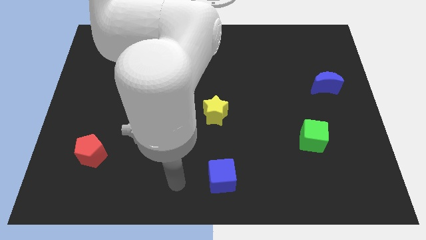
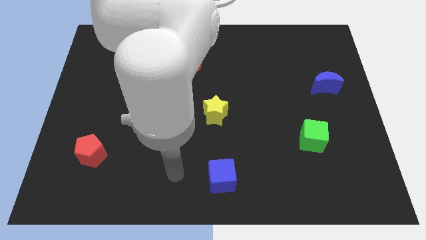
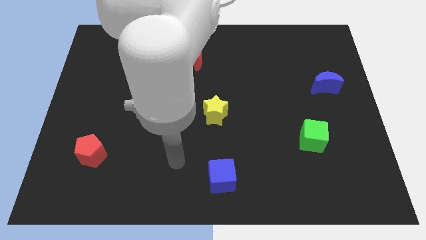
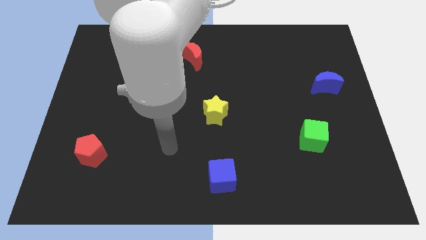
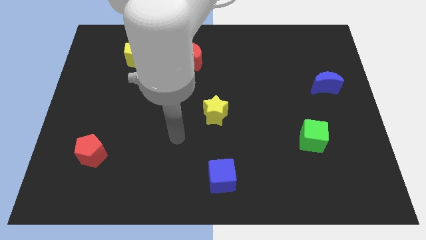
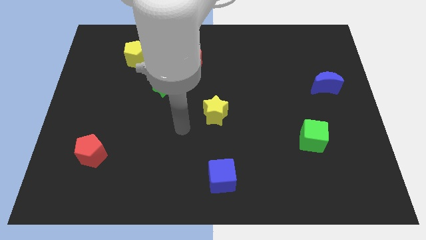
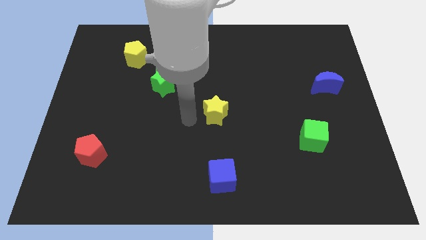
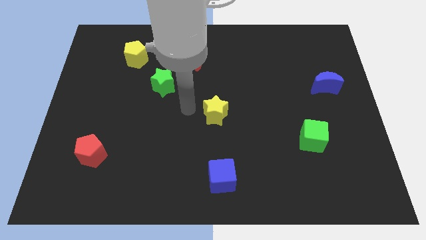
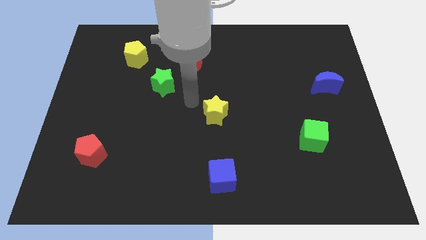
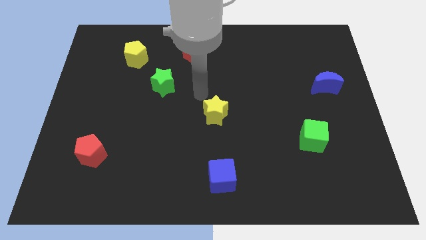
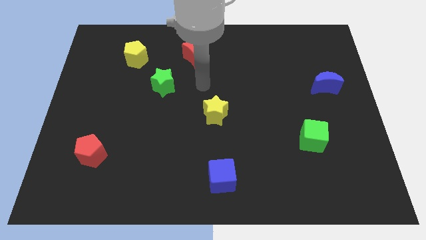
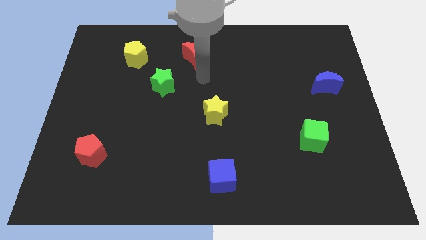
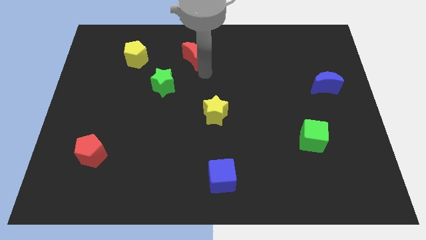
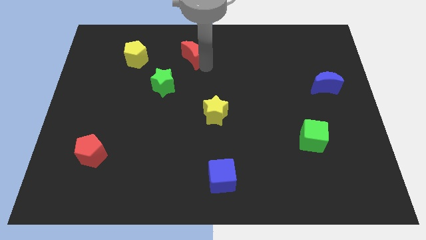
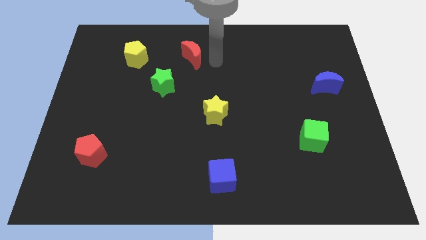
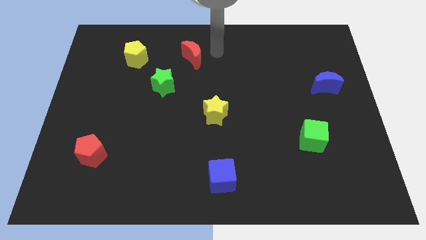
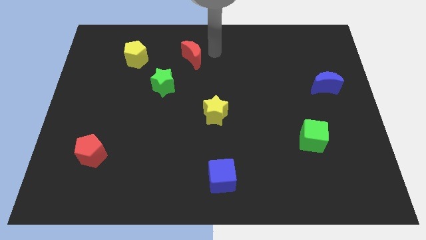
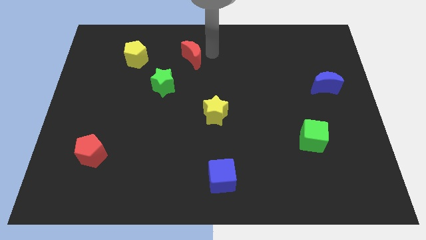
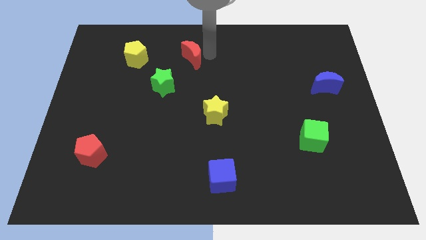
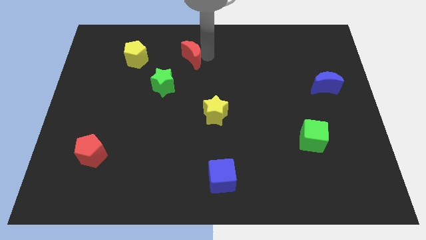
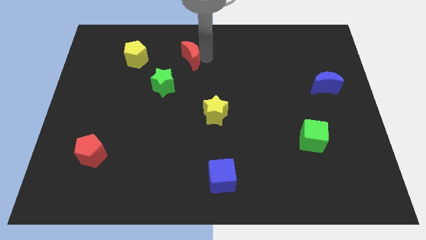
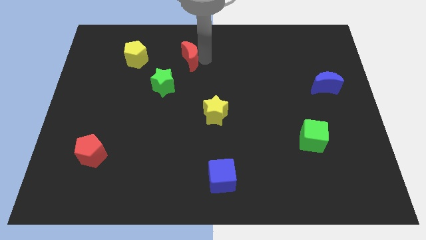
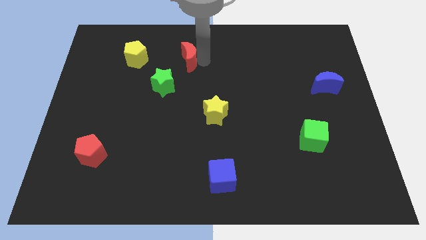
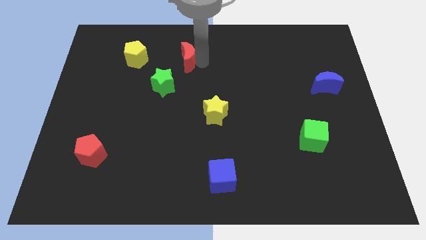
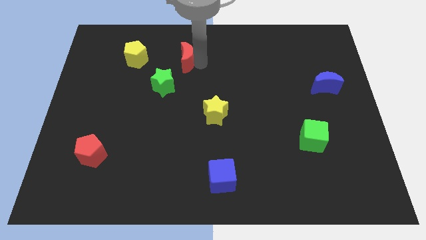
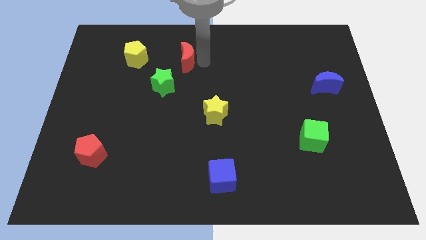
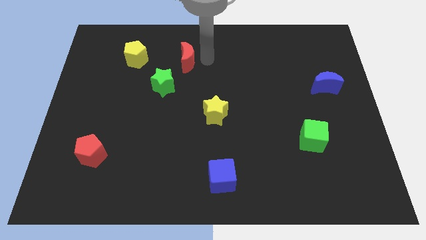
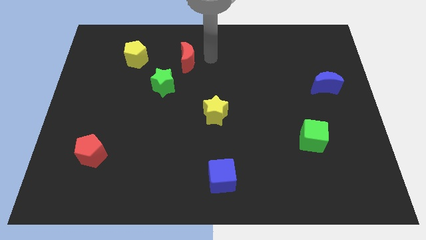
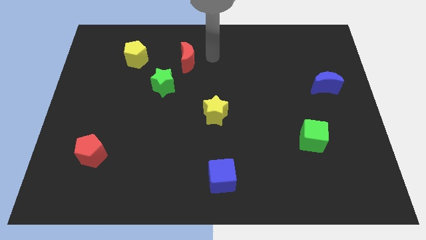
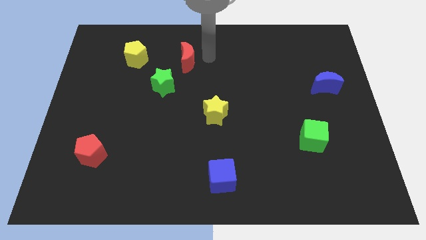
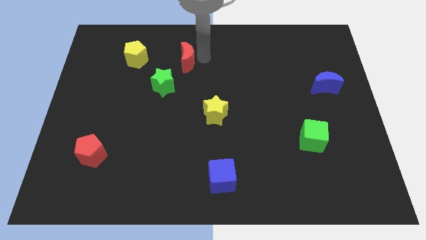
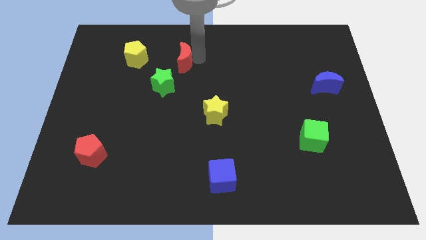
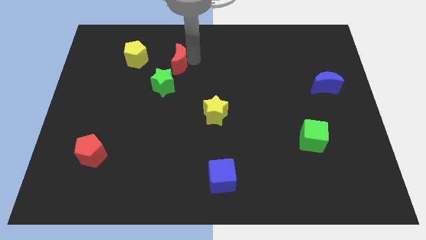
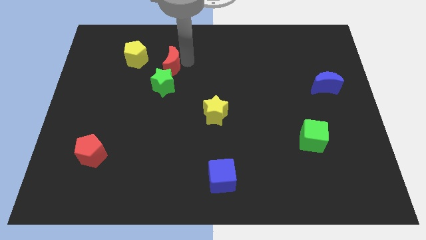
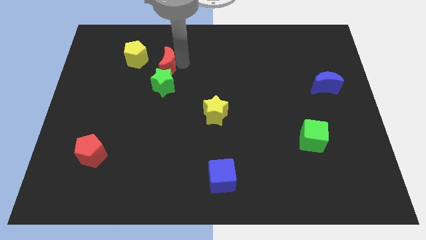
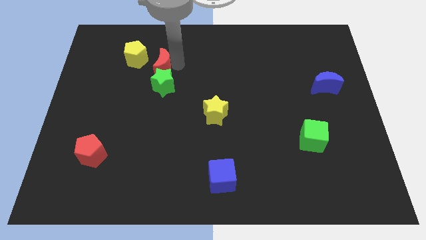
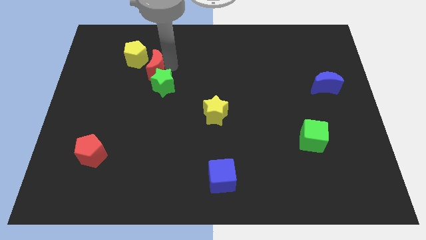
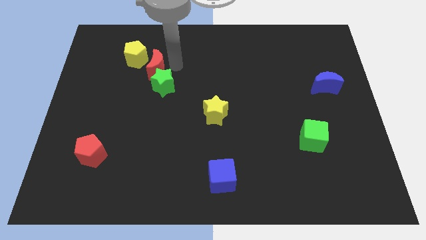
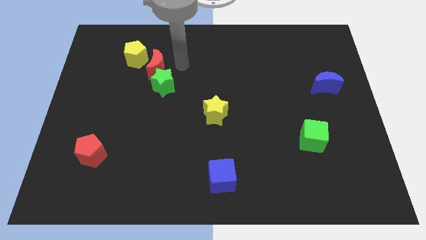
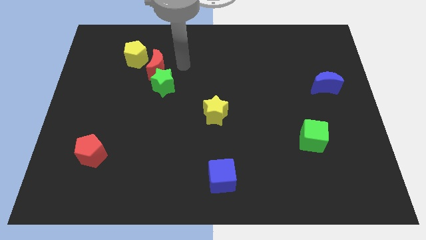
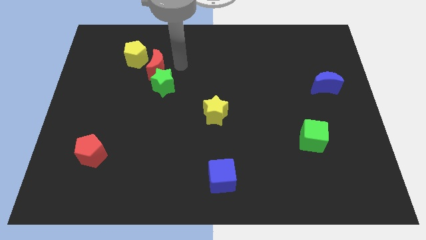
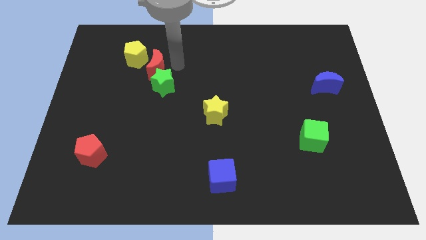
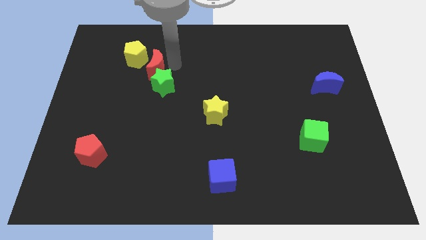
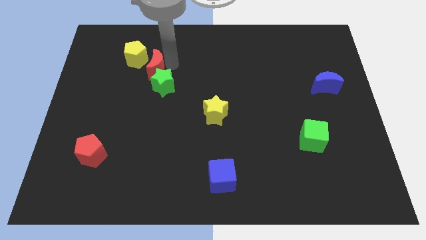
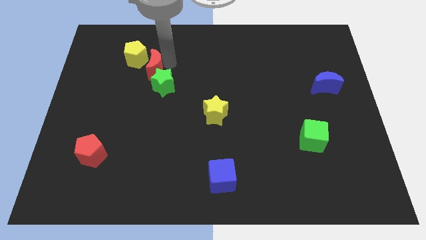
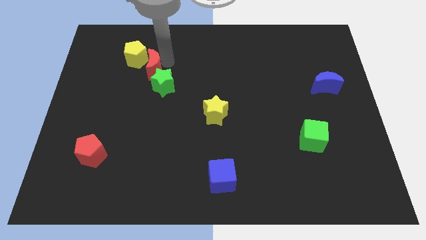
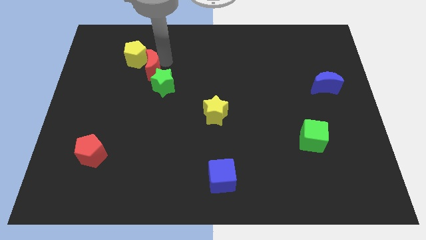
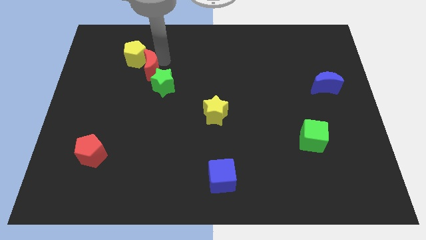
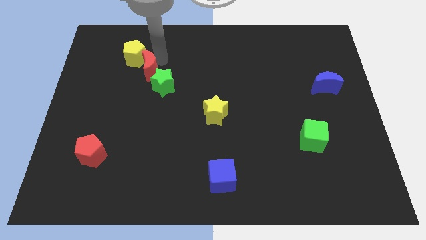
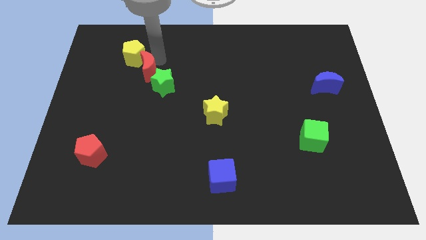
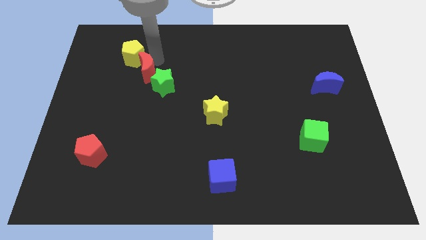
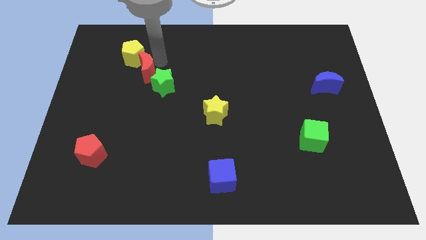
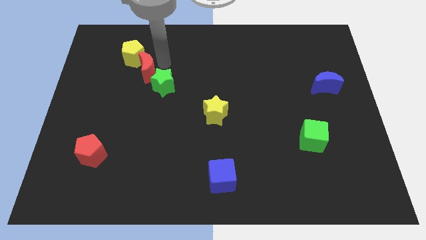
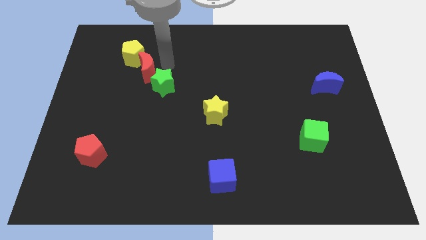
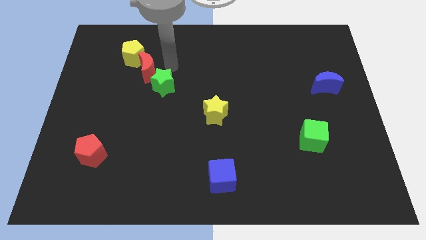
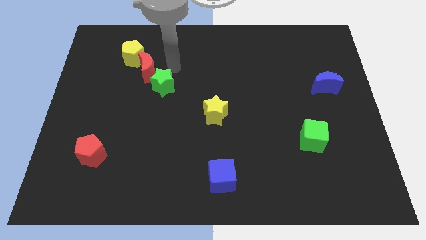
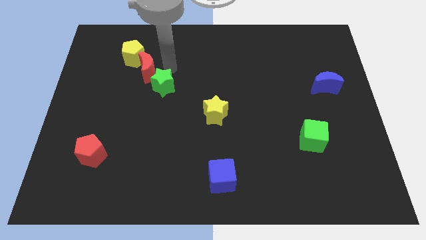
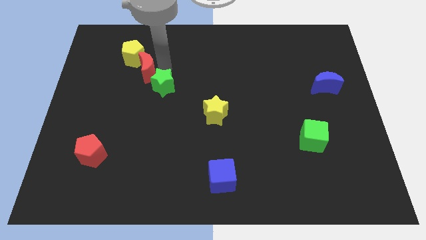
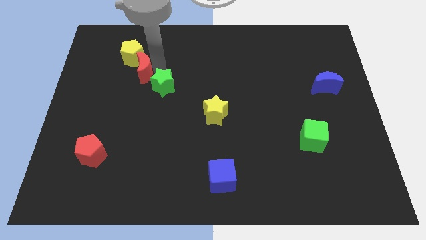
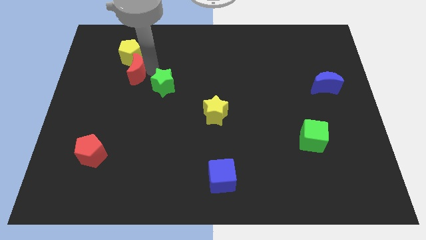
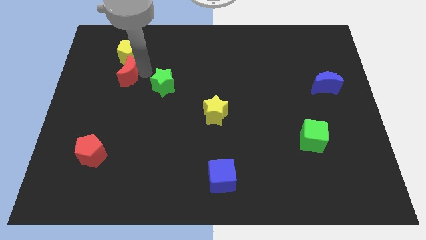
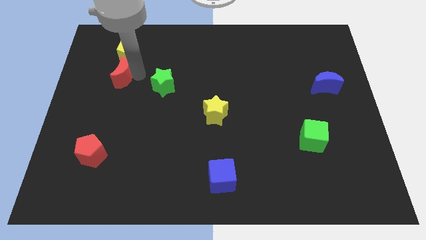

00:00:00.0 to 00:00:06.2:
put the red moon to the bottom left of the yellow pentagon

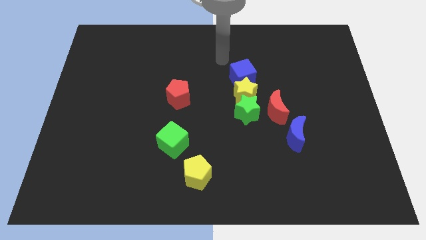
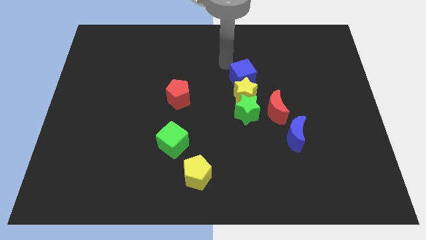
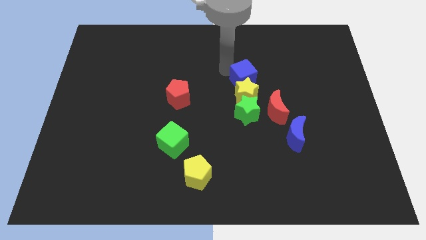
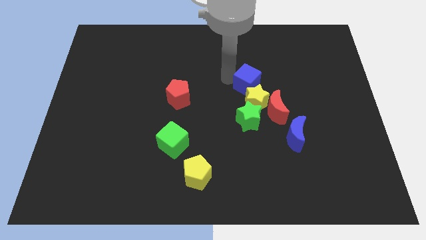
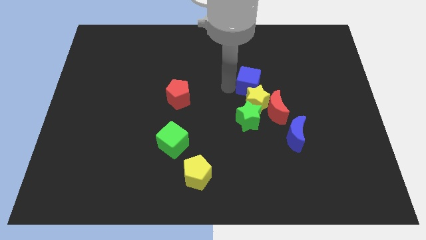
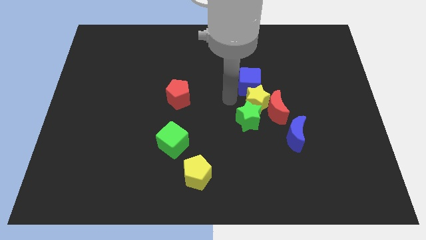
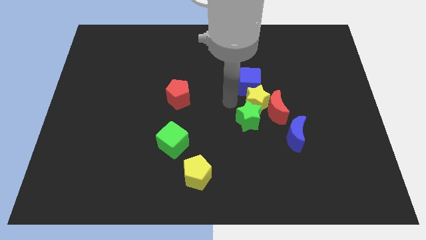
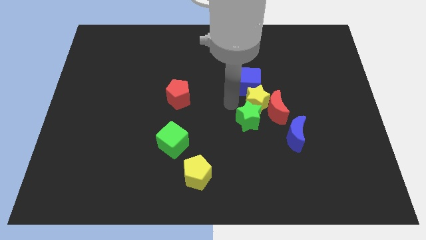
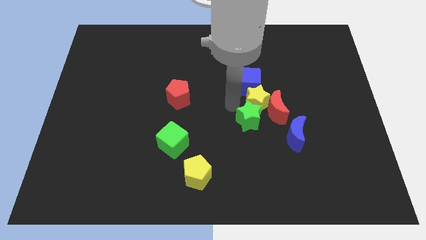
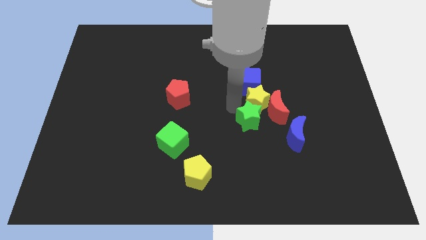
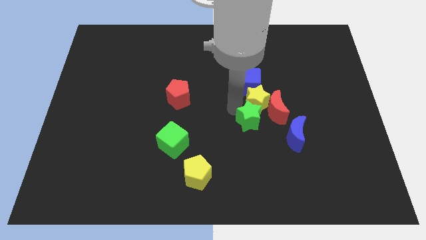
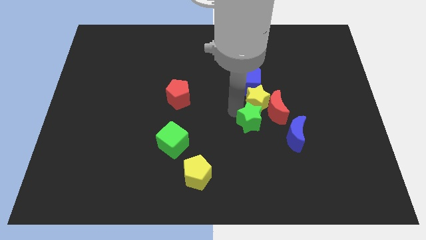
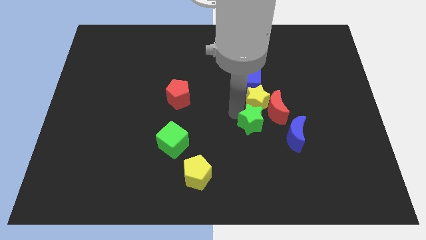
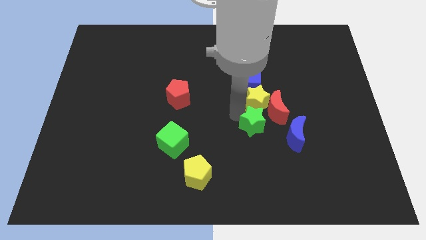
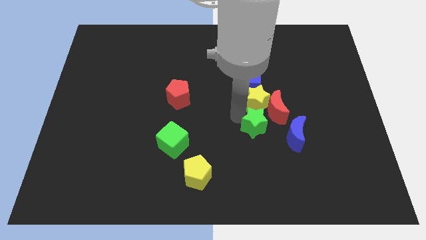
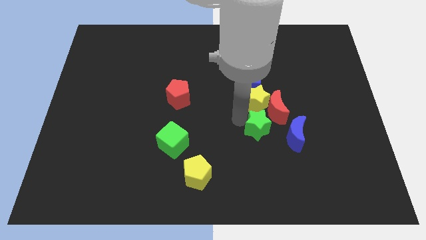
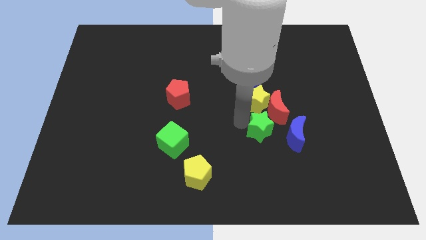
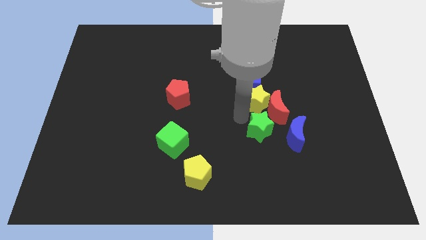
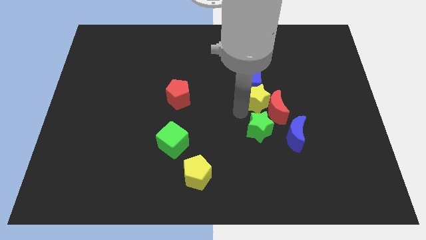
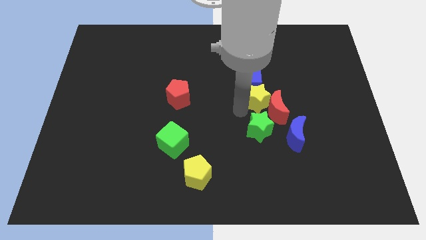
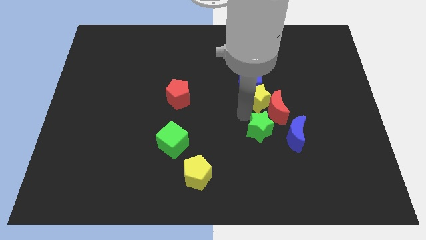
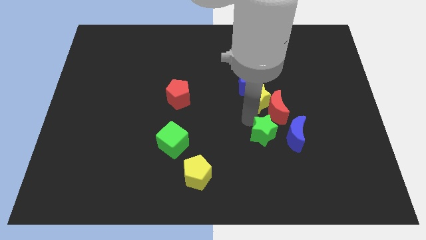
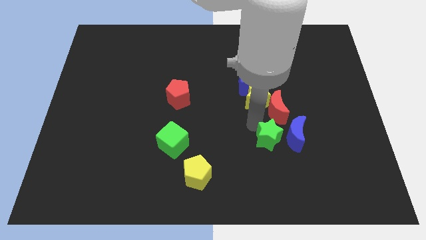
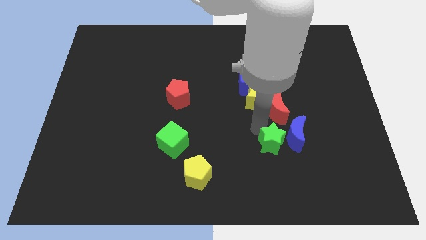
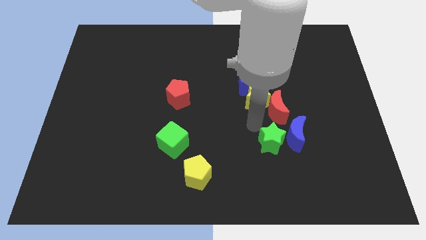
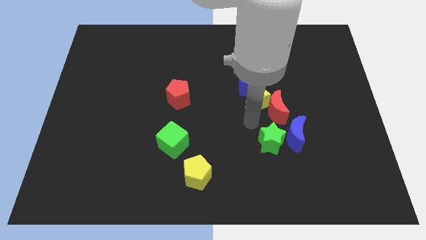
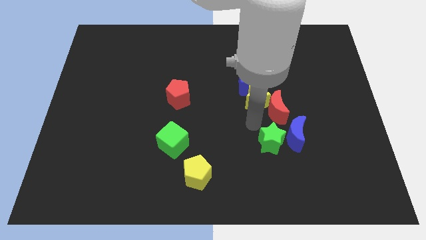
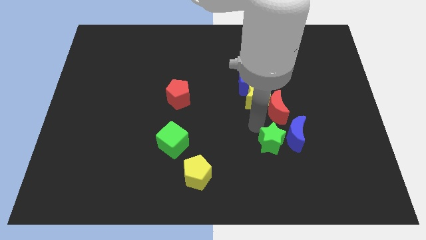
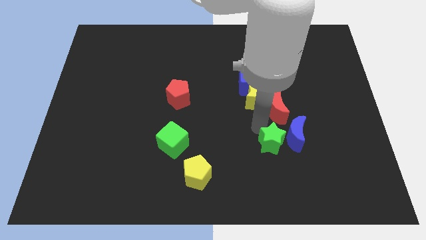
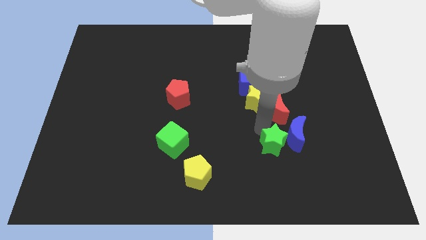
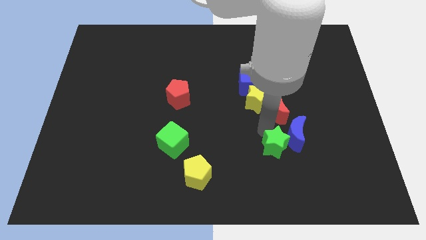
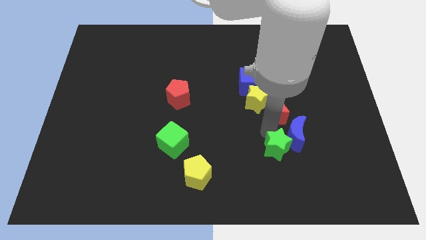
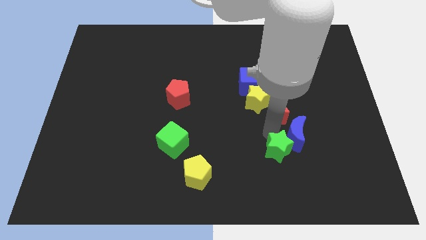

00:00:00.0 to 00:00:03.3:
slide the green star below the blue moon
